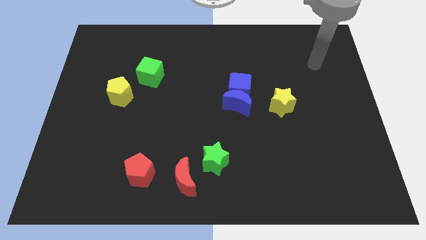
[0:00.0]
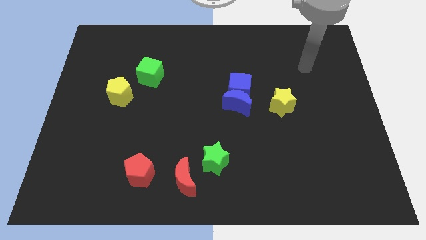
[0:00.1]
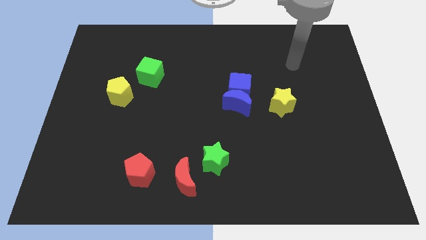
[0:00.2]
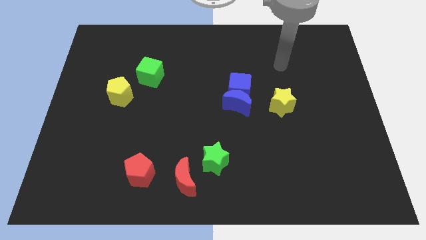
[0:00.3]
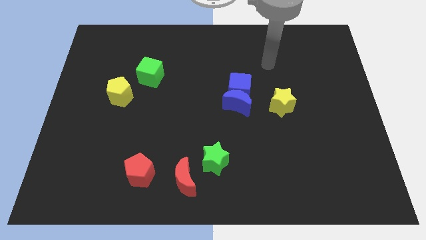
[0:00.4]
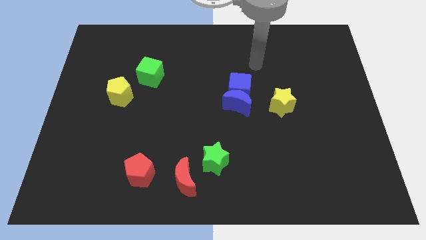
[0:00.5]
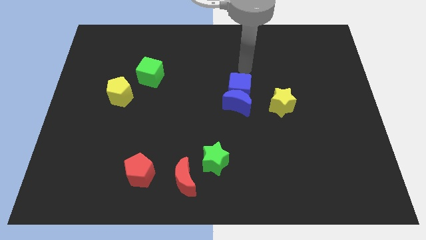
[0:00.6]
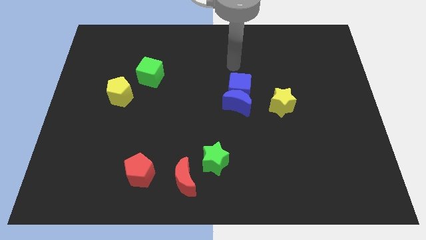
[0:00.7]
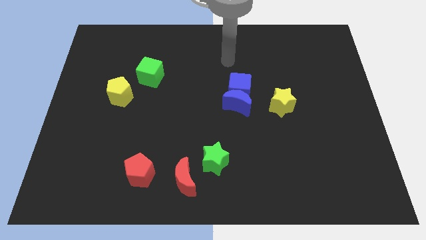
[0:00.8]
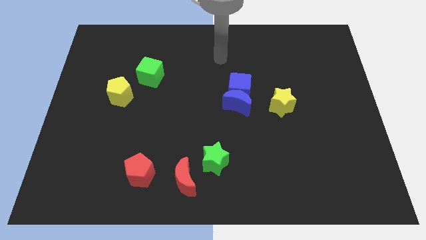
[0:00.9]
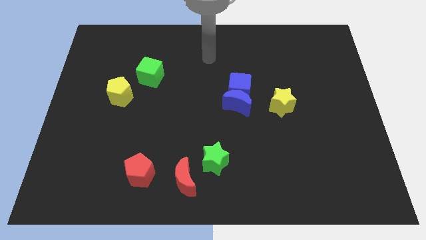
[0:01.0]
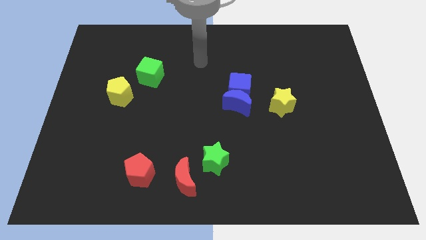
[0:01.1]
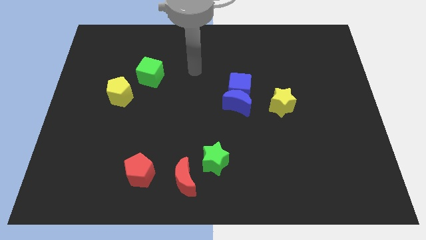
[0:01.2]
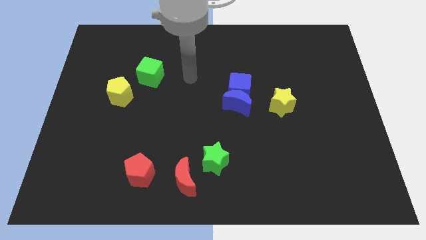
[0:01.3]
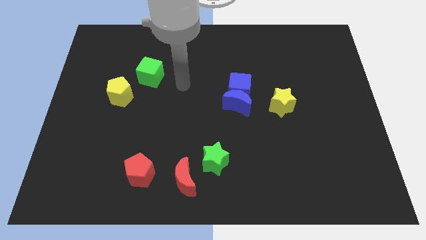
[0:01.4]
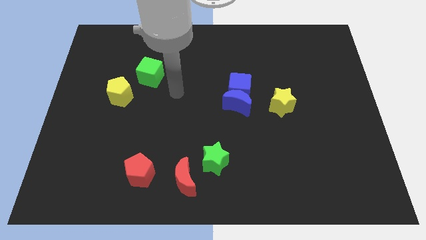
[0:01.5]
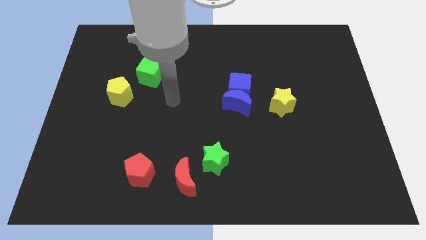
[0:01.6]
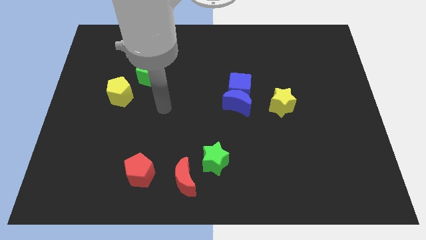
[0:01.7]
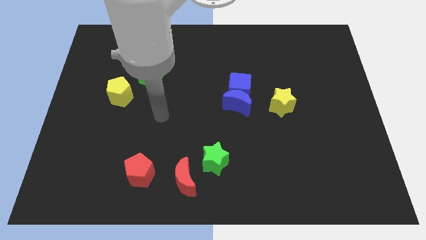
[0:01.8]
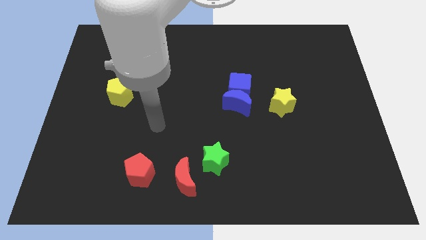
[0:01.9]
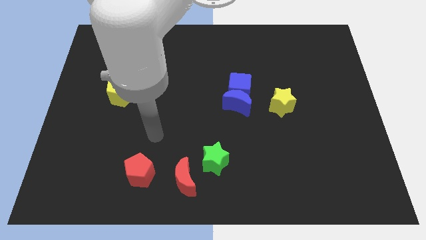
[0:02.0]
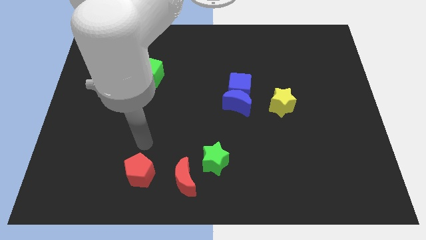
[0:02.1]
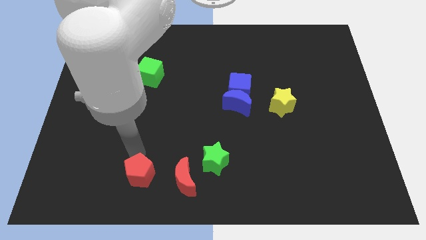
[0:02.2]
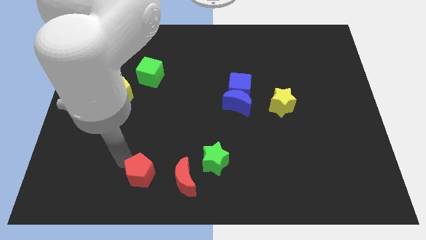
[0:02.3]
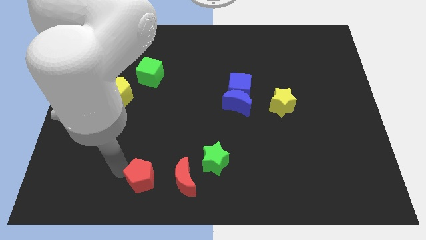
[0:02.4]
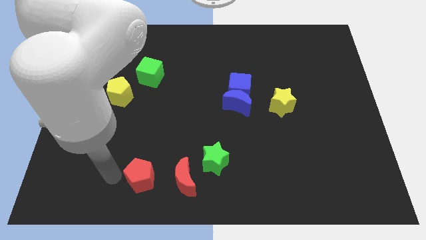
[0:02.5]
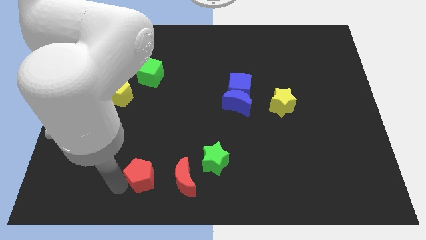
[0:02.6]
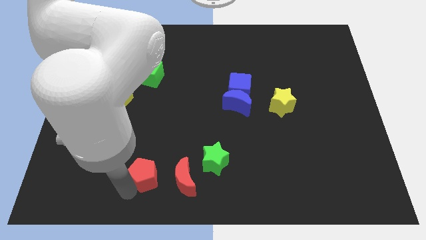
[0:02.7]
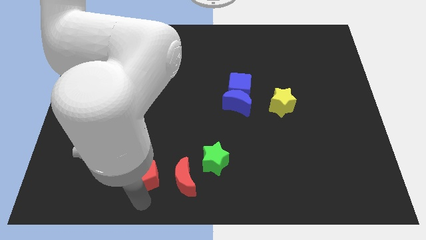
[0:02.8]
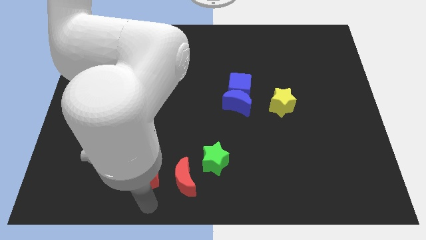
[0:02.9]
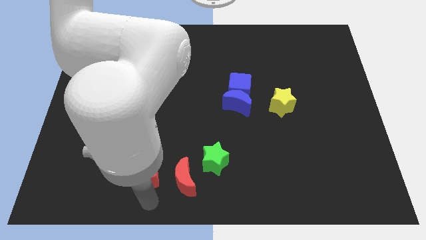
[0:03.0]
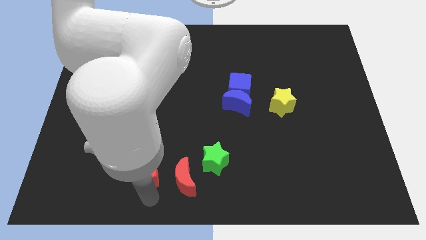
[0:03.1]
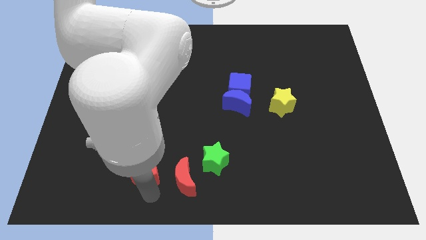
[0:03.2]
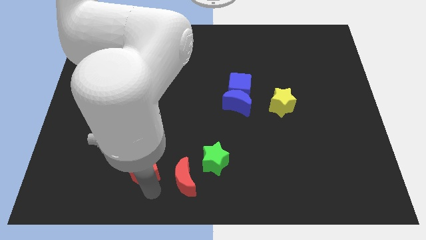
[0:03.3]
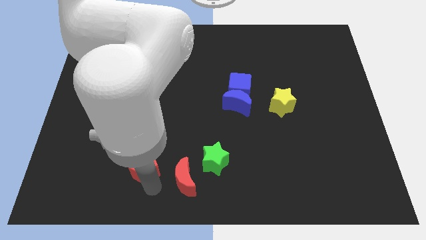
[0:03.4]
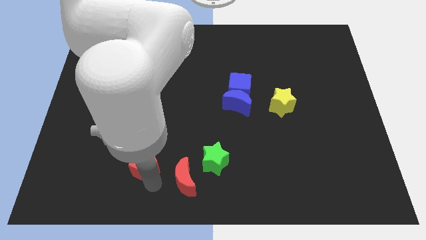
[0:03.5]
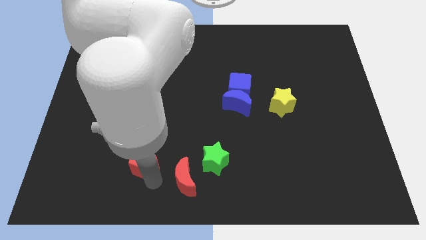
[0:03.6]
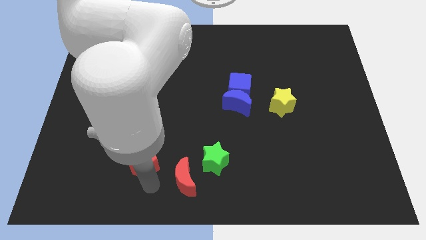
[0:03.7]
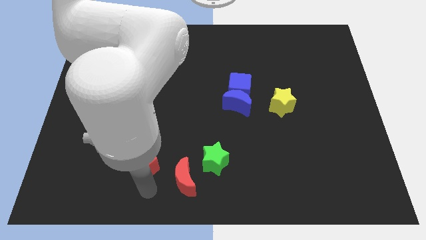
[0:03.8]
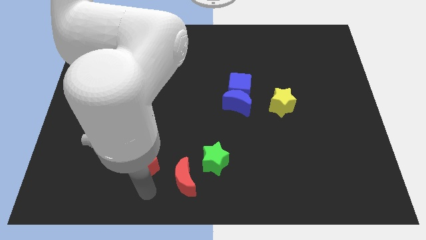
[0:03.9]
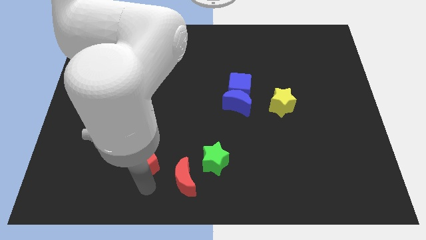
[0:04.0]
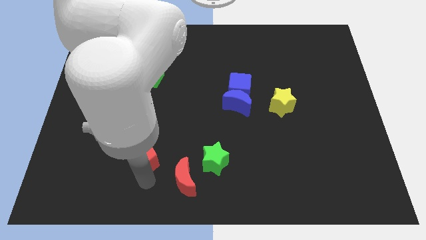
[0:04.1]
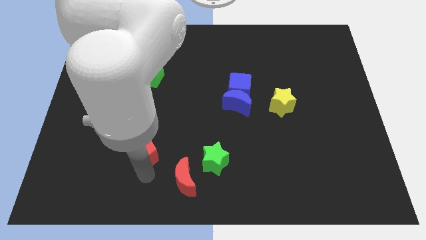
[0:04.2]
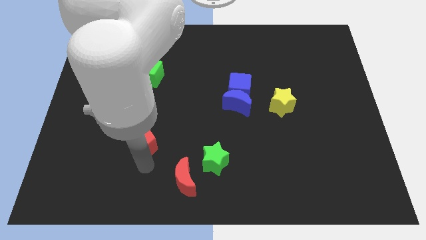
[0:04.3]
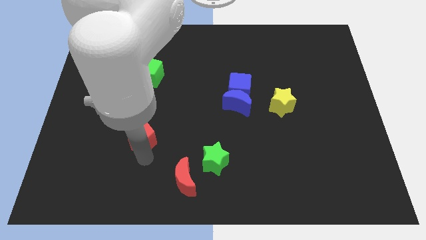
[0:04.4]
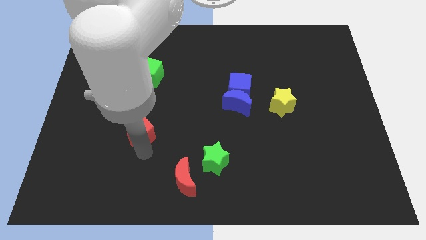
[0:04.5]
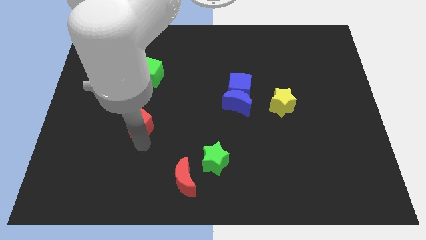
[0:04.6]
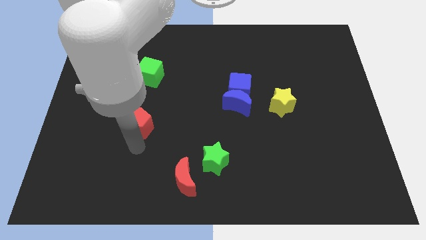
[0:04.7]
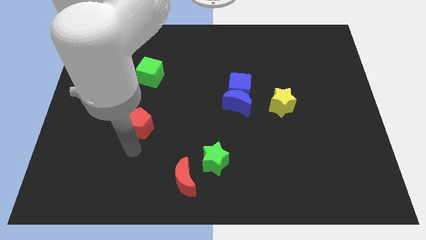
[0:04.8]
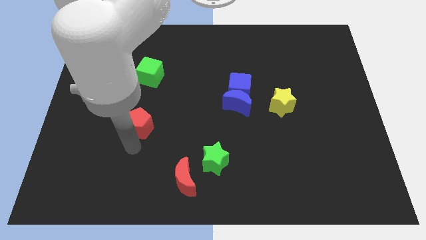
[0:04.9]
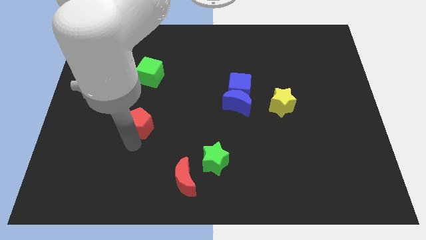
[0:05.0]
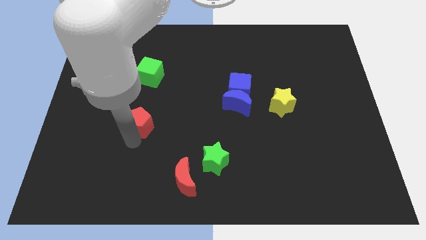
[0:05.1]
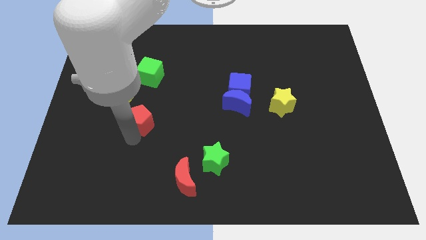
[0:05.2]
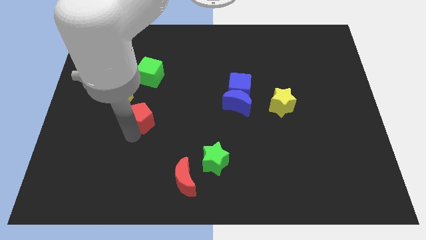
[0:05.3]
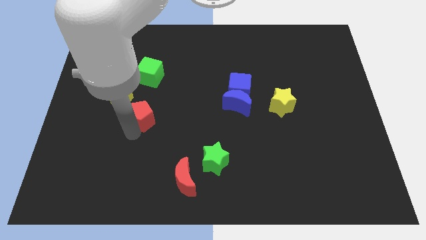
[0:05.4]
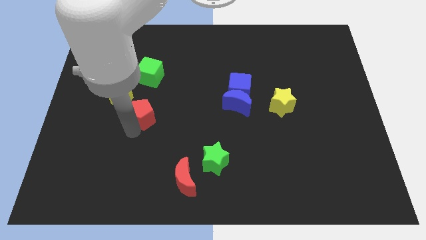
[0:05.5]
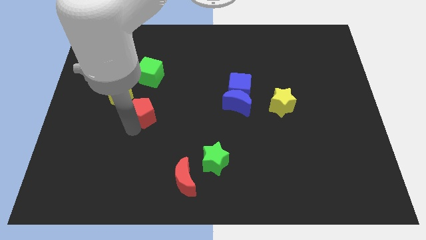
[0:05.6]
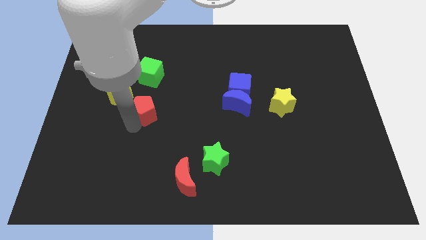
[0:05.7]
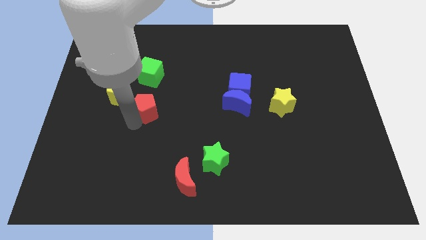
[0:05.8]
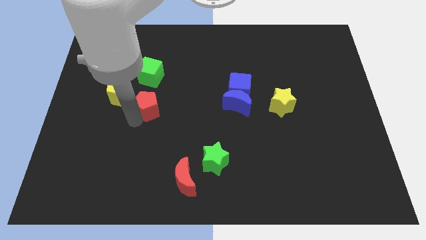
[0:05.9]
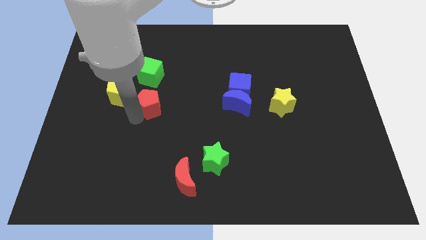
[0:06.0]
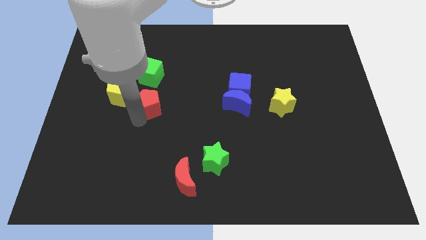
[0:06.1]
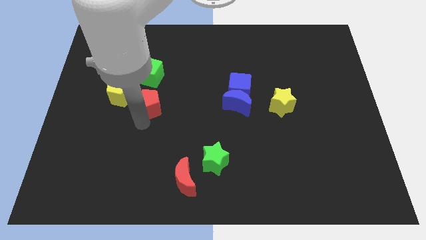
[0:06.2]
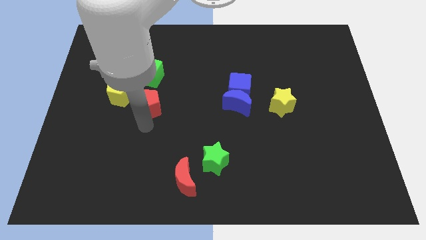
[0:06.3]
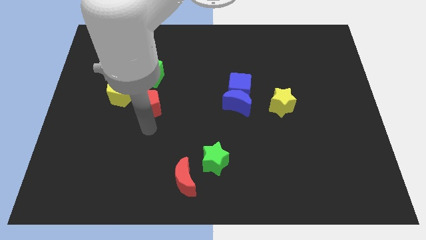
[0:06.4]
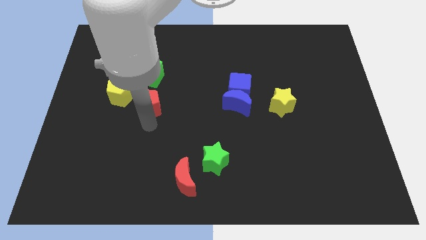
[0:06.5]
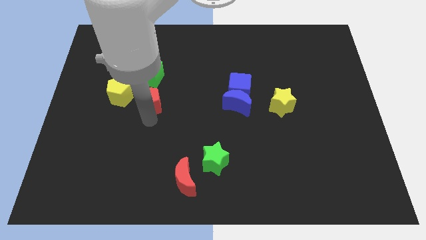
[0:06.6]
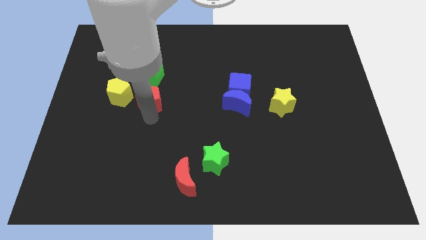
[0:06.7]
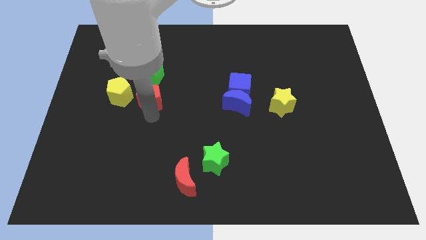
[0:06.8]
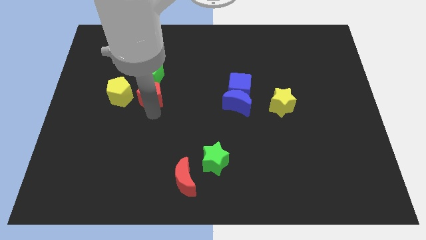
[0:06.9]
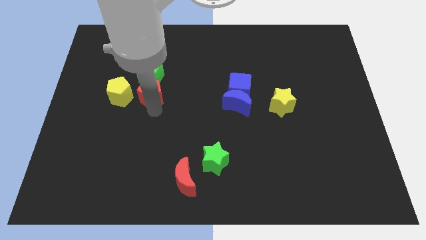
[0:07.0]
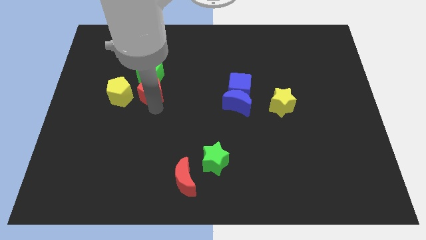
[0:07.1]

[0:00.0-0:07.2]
push the red pentagon to the green cube

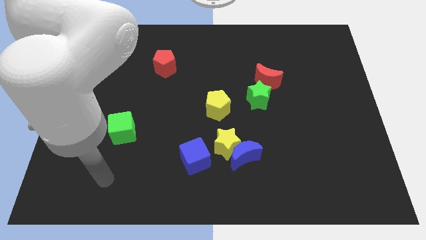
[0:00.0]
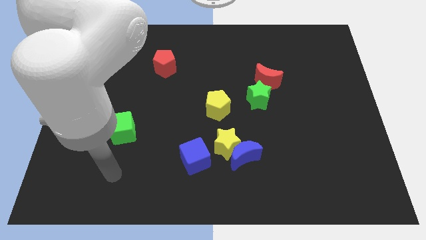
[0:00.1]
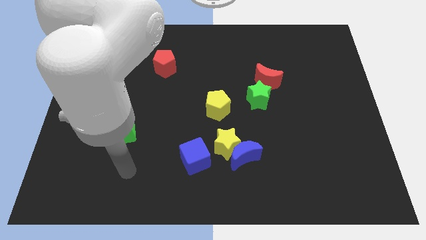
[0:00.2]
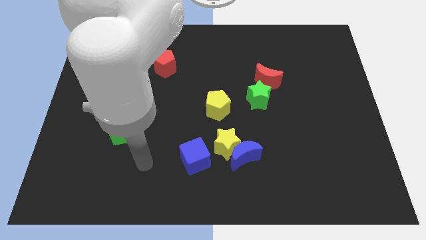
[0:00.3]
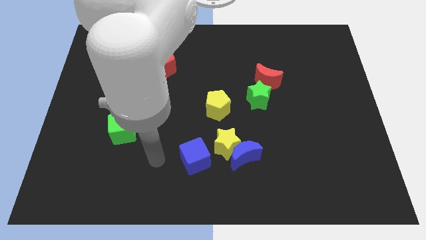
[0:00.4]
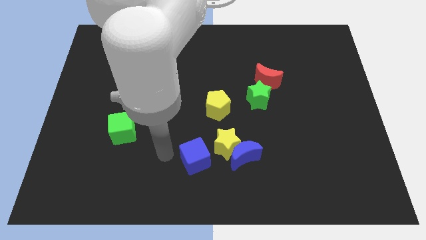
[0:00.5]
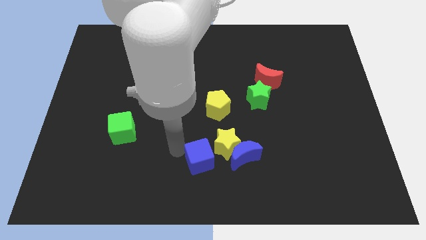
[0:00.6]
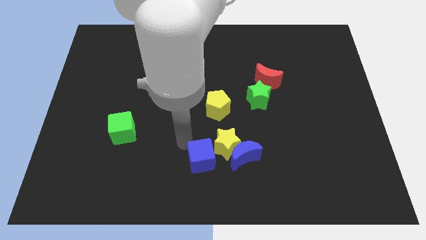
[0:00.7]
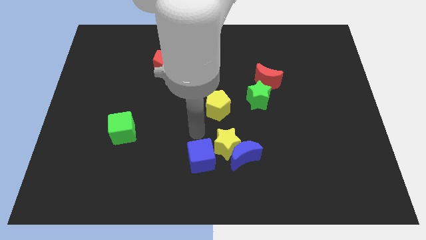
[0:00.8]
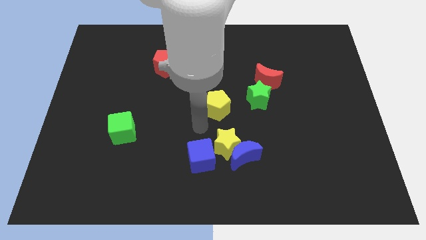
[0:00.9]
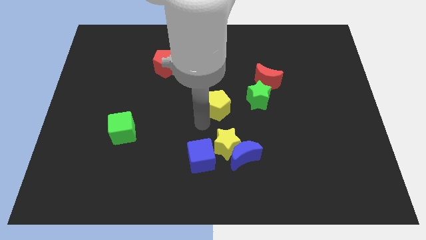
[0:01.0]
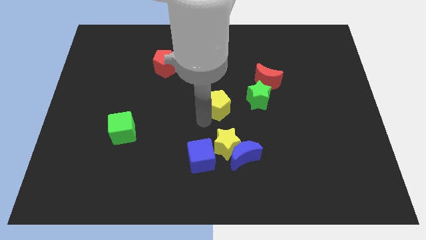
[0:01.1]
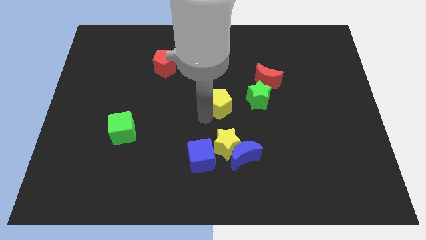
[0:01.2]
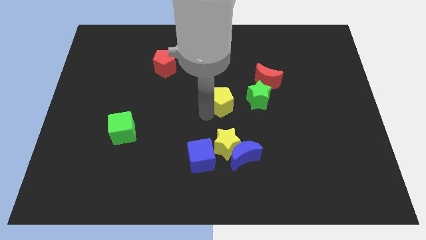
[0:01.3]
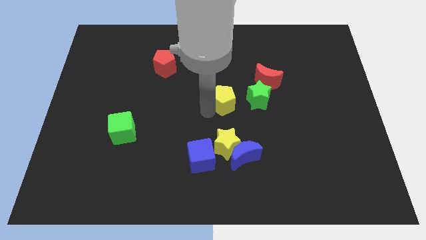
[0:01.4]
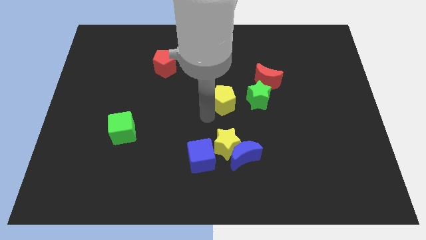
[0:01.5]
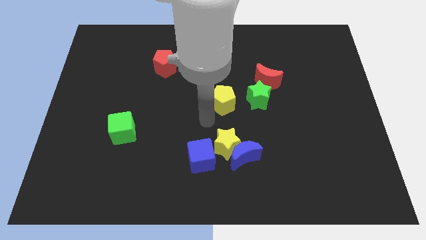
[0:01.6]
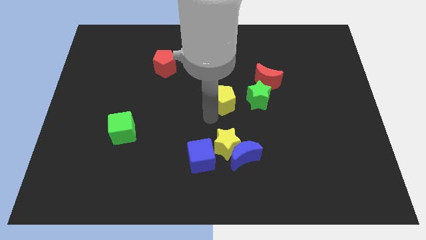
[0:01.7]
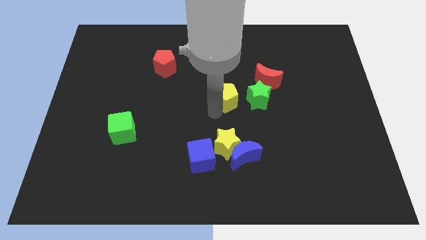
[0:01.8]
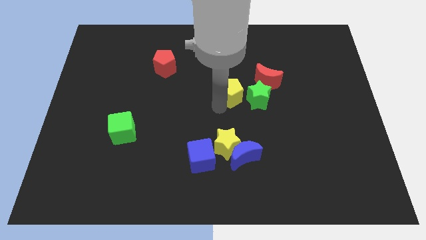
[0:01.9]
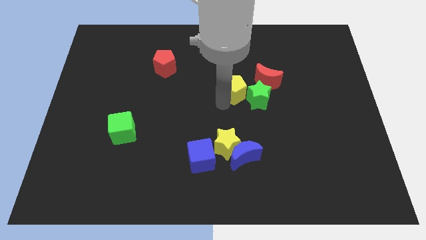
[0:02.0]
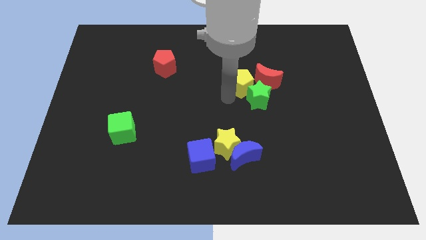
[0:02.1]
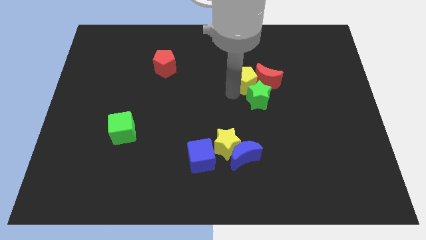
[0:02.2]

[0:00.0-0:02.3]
slide the yellow pentagon to the red moon
